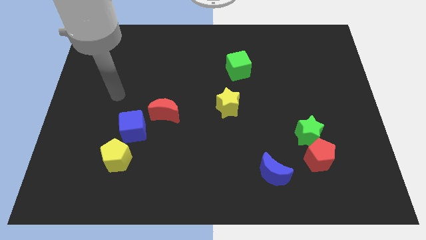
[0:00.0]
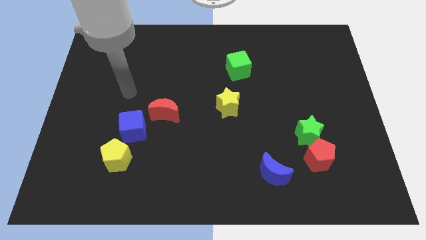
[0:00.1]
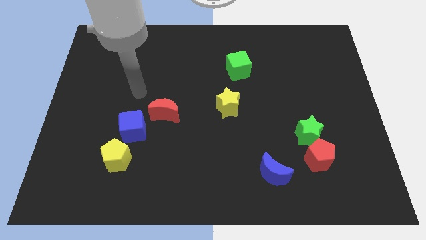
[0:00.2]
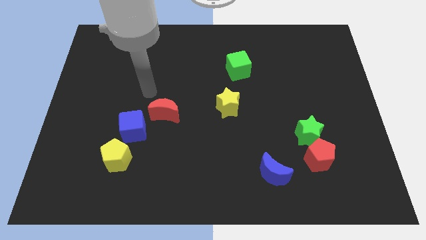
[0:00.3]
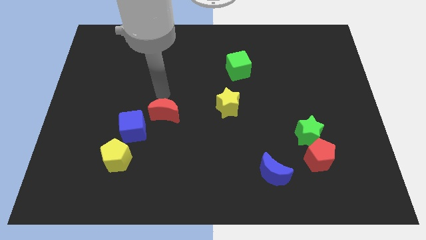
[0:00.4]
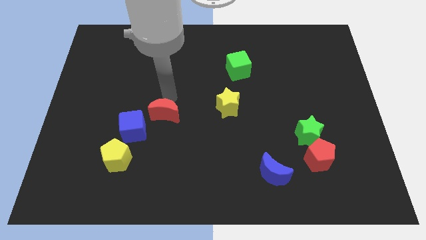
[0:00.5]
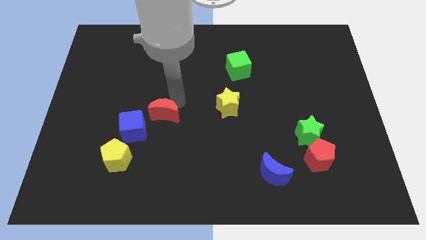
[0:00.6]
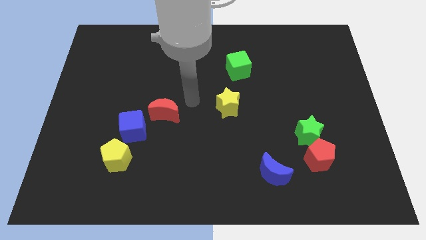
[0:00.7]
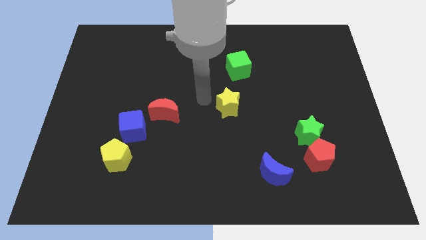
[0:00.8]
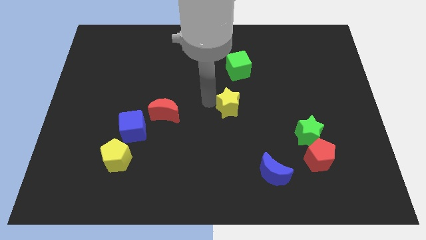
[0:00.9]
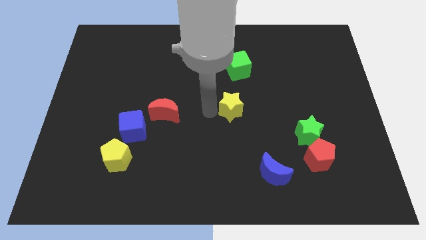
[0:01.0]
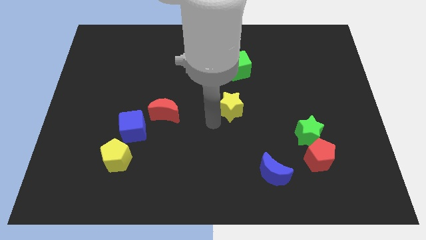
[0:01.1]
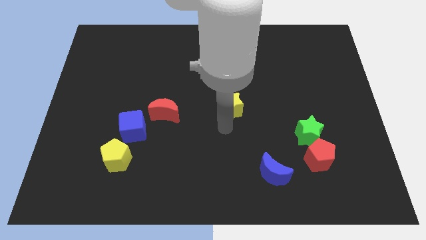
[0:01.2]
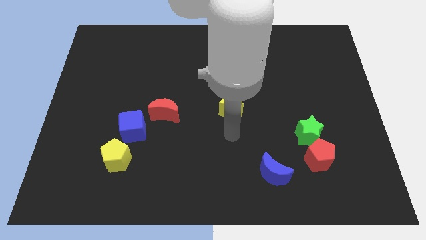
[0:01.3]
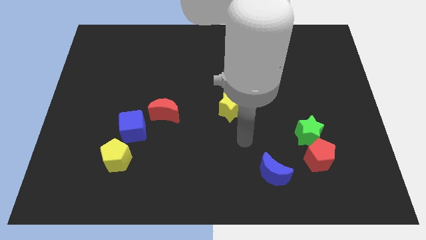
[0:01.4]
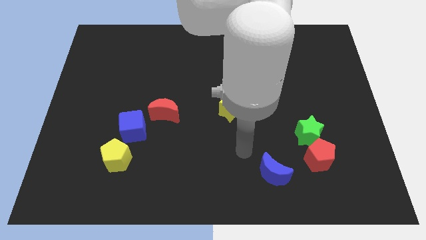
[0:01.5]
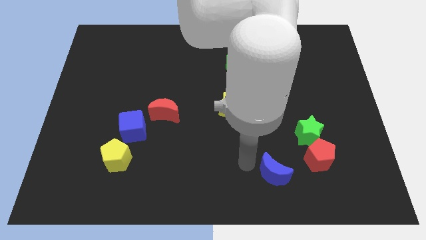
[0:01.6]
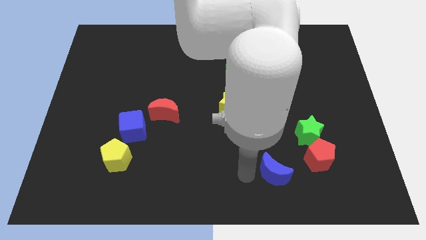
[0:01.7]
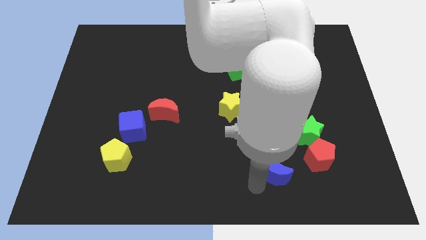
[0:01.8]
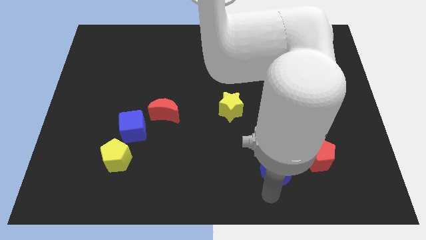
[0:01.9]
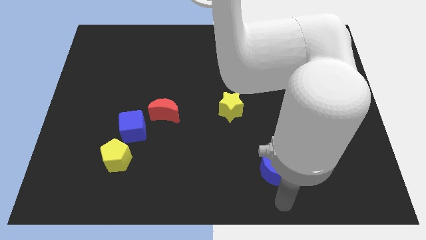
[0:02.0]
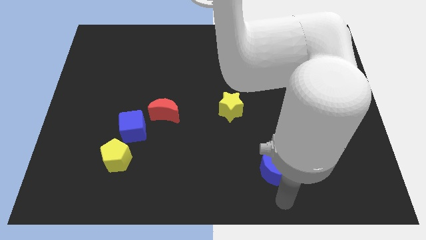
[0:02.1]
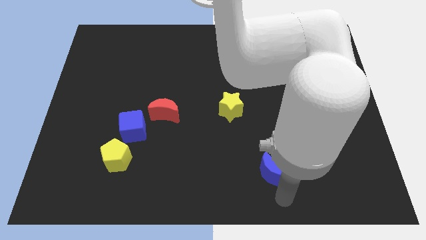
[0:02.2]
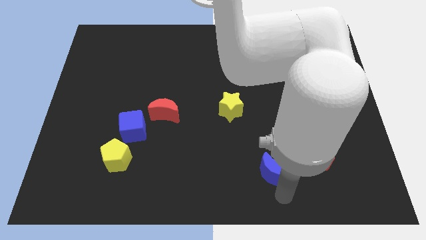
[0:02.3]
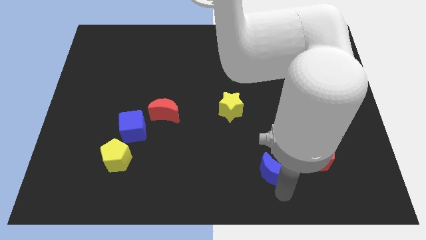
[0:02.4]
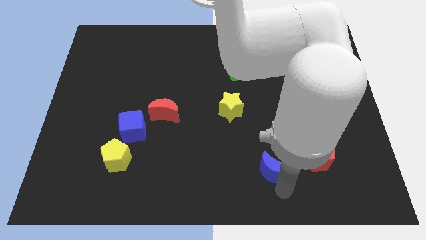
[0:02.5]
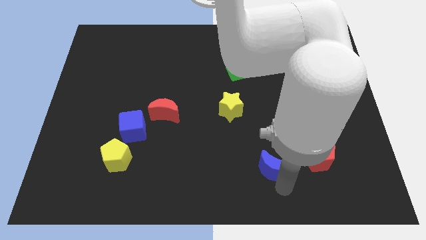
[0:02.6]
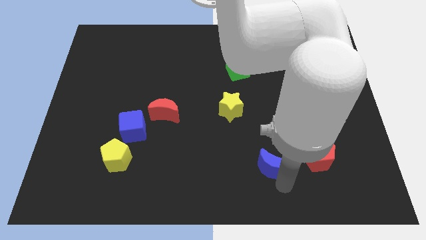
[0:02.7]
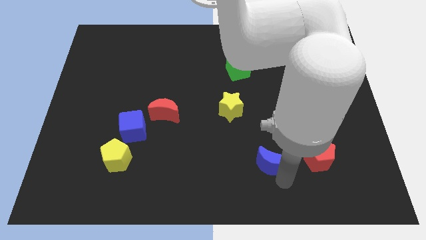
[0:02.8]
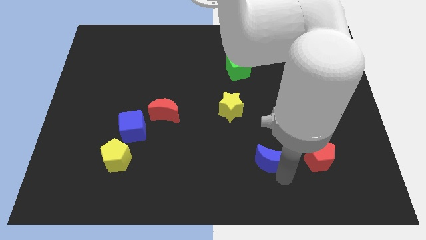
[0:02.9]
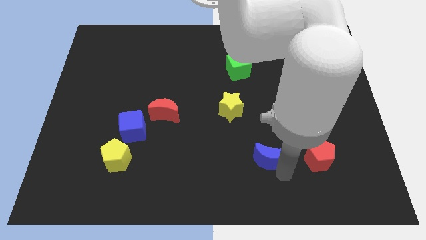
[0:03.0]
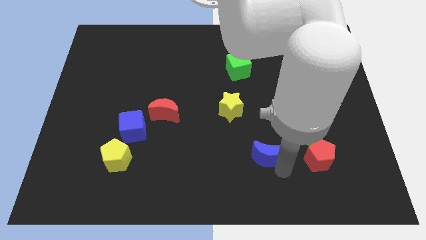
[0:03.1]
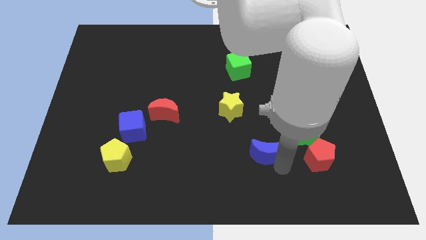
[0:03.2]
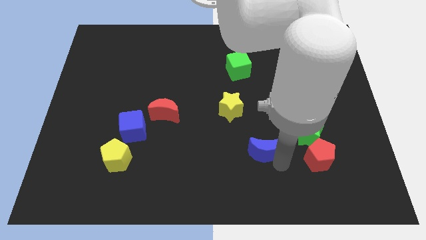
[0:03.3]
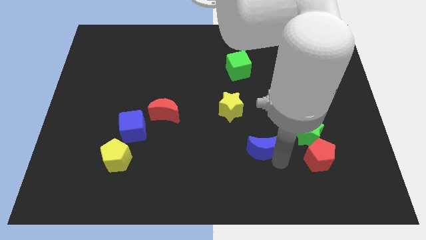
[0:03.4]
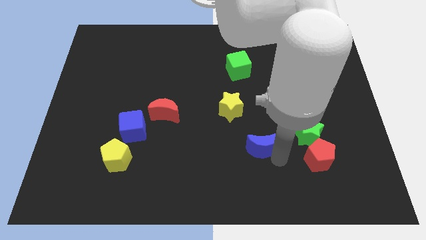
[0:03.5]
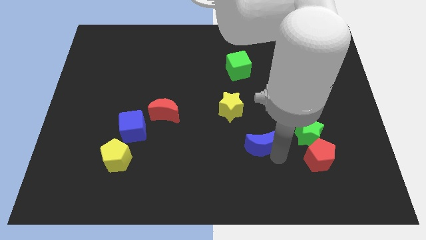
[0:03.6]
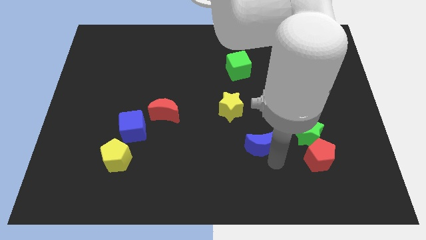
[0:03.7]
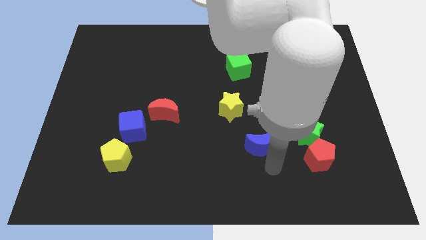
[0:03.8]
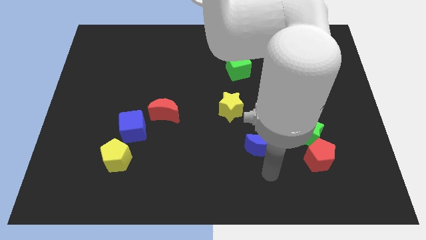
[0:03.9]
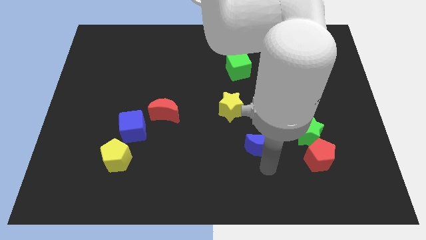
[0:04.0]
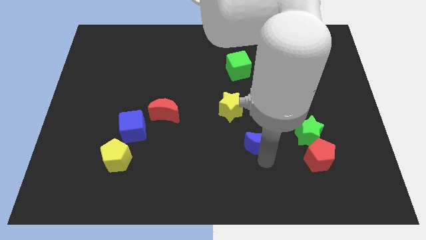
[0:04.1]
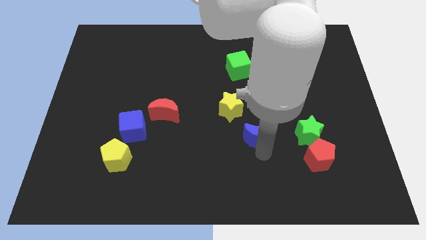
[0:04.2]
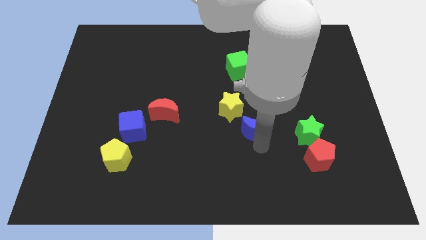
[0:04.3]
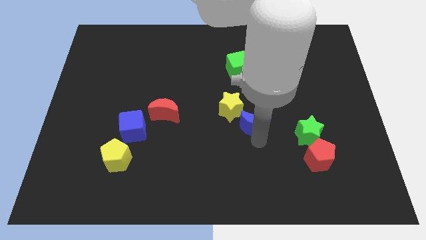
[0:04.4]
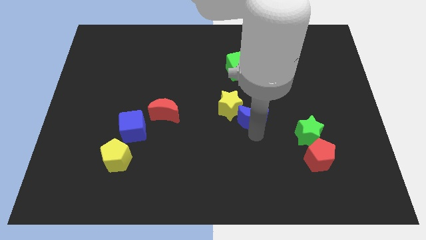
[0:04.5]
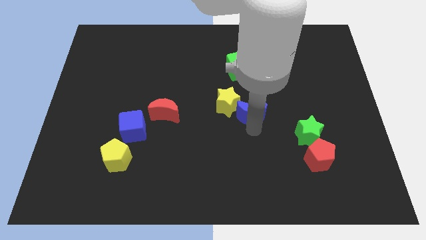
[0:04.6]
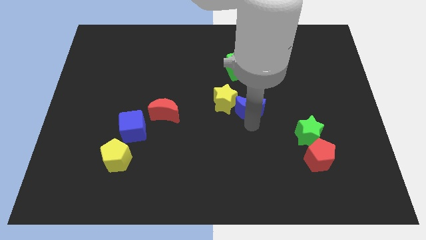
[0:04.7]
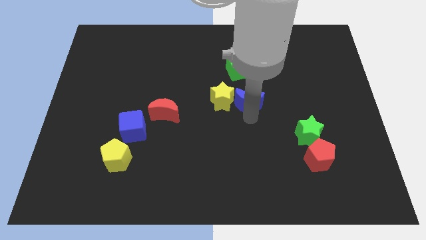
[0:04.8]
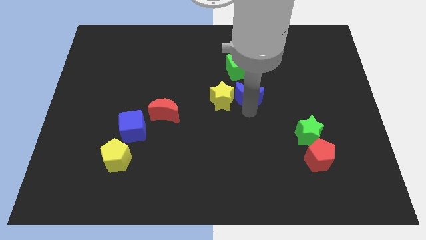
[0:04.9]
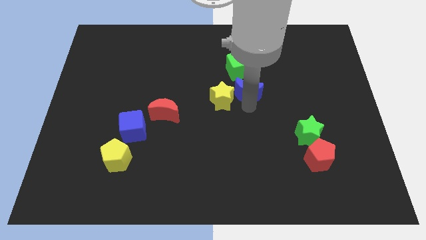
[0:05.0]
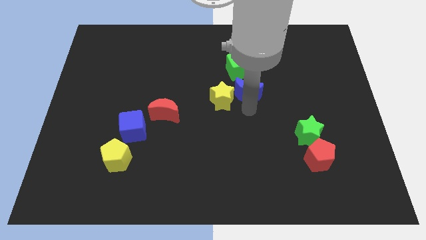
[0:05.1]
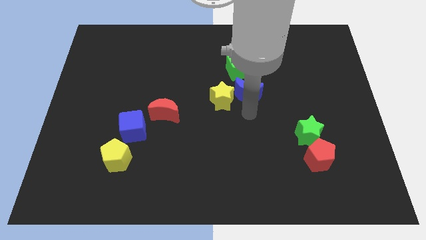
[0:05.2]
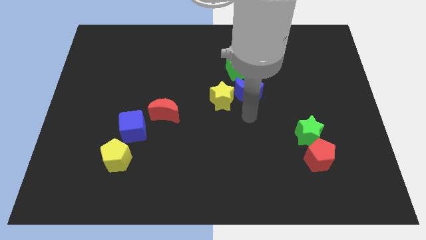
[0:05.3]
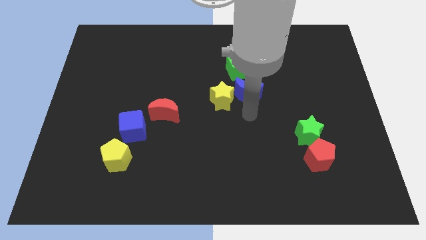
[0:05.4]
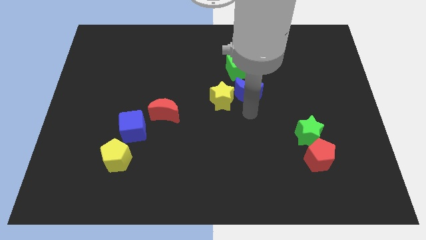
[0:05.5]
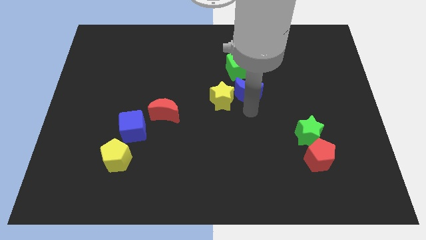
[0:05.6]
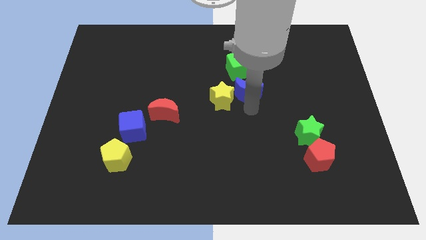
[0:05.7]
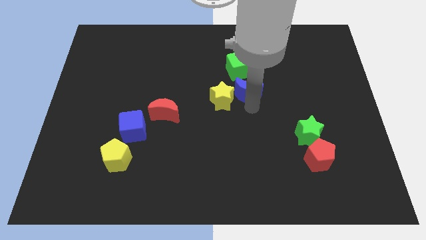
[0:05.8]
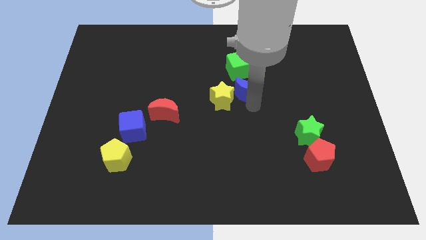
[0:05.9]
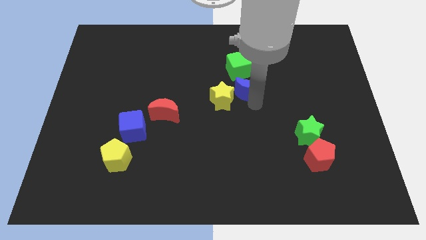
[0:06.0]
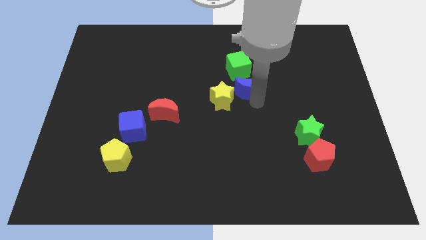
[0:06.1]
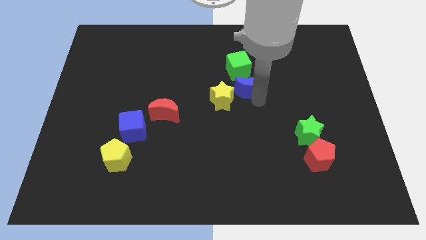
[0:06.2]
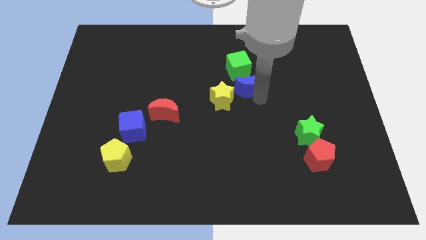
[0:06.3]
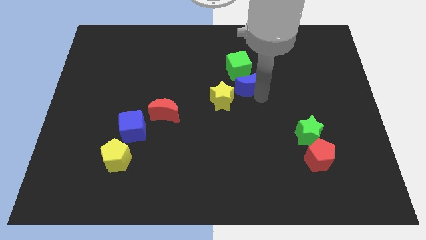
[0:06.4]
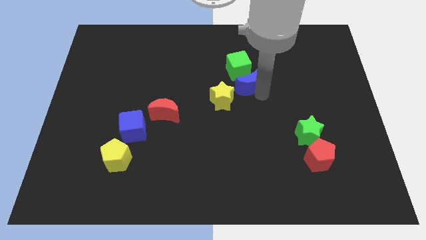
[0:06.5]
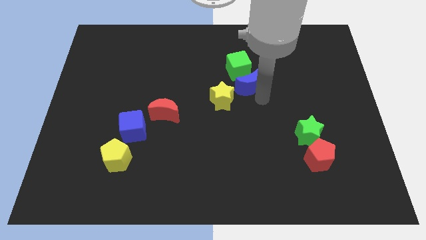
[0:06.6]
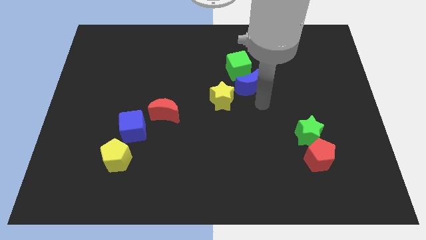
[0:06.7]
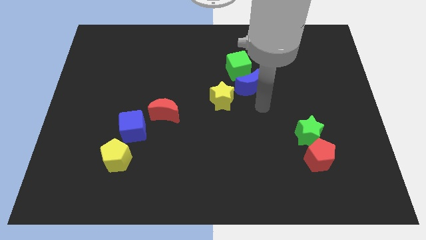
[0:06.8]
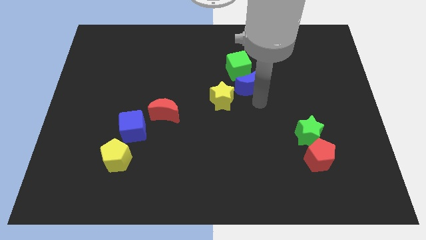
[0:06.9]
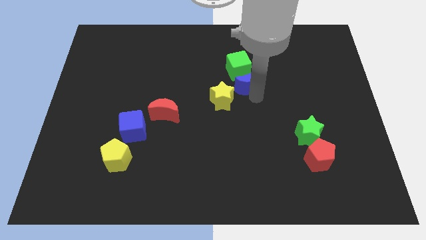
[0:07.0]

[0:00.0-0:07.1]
move the blue moon close to the green cube

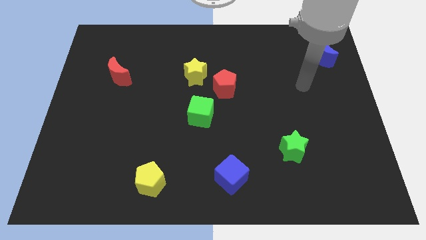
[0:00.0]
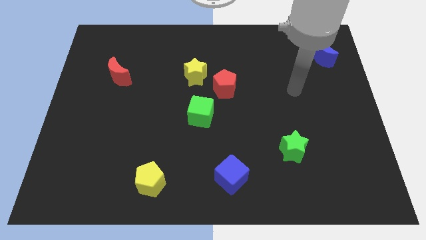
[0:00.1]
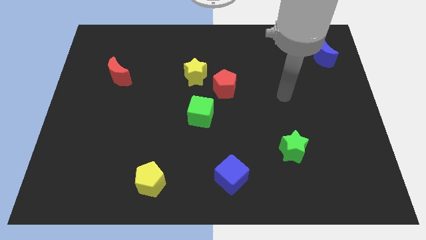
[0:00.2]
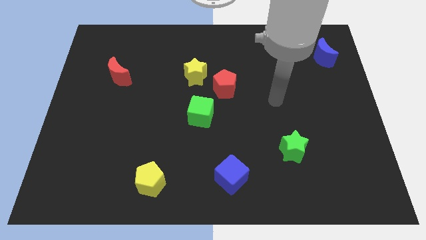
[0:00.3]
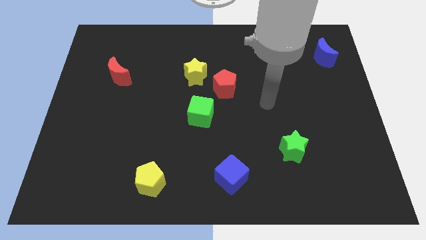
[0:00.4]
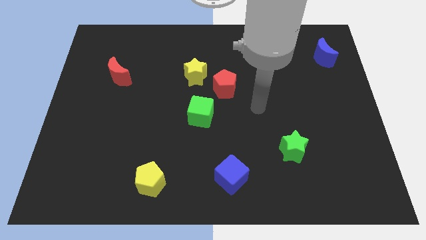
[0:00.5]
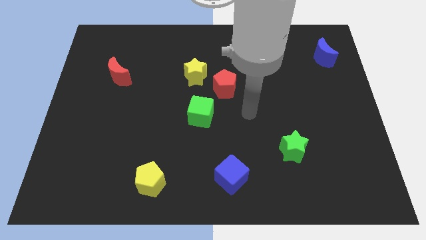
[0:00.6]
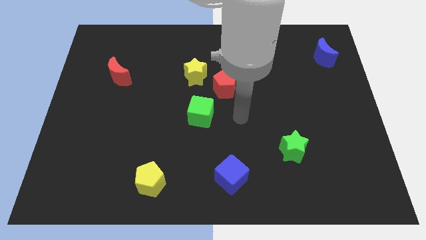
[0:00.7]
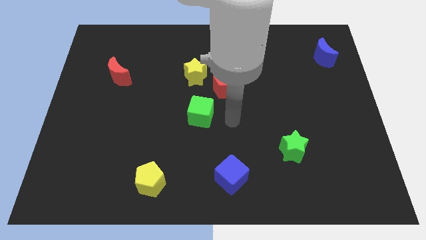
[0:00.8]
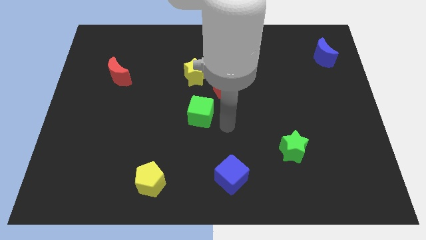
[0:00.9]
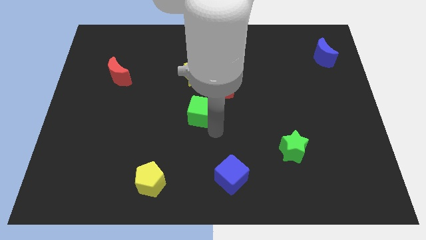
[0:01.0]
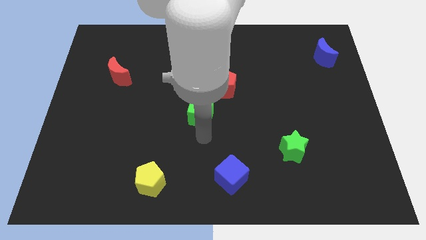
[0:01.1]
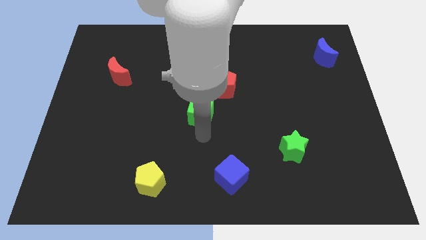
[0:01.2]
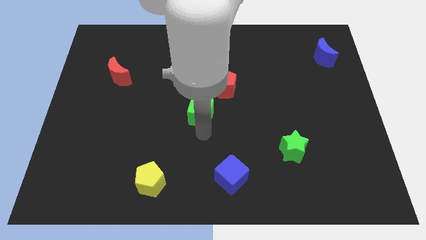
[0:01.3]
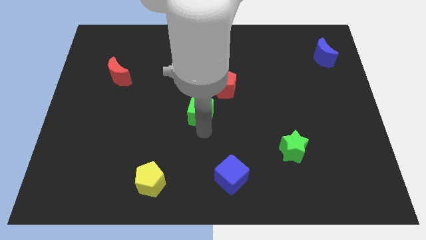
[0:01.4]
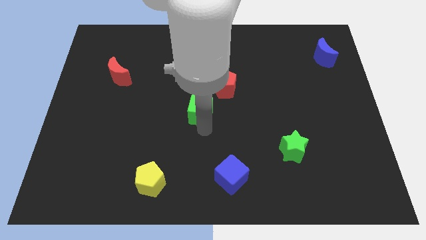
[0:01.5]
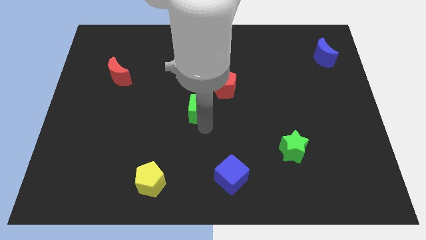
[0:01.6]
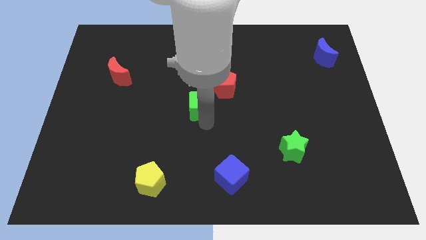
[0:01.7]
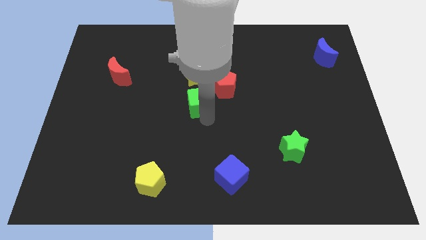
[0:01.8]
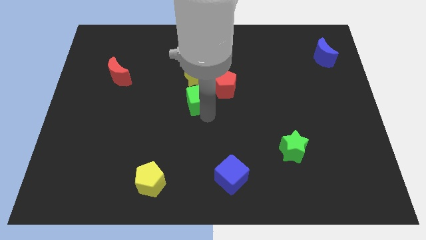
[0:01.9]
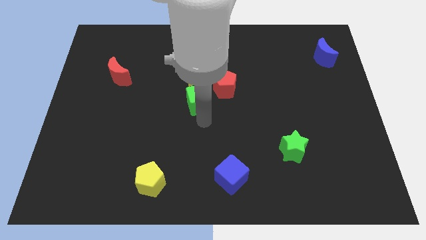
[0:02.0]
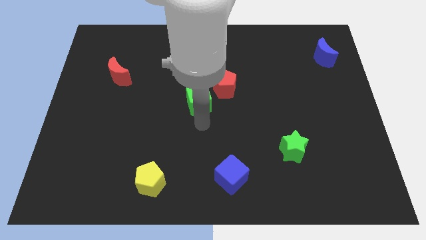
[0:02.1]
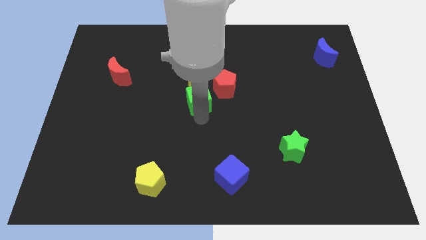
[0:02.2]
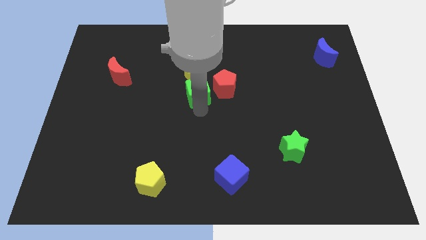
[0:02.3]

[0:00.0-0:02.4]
slide the green cube towards the yellow star
